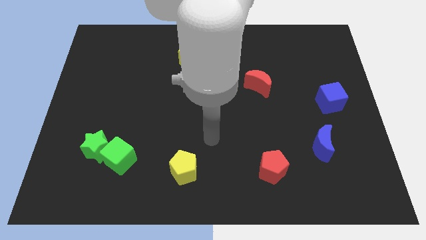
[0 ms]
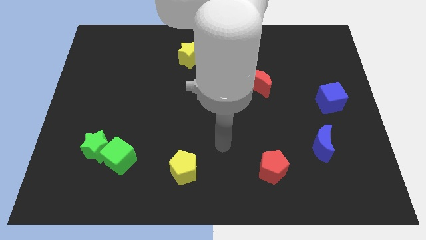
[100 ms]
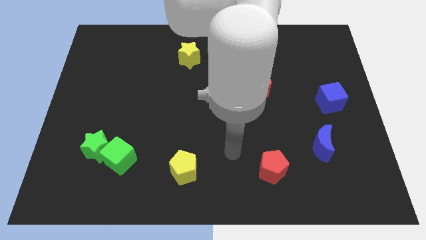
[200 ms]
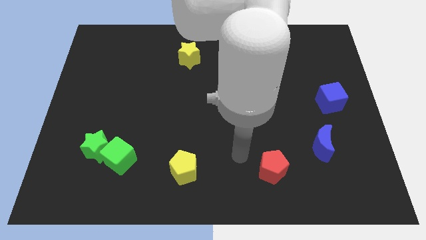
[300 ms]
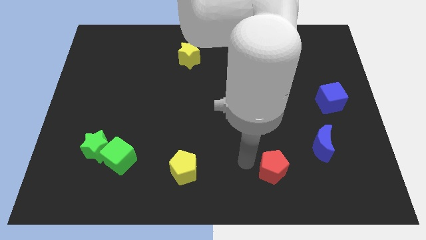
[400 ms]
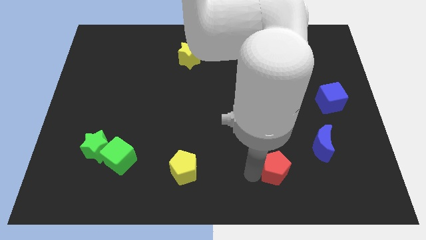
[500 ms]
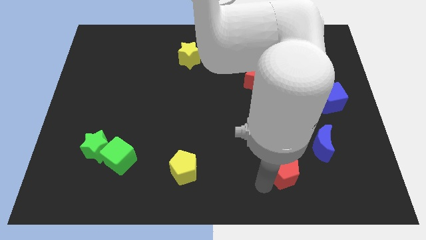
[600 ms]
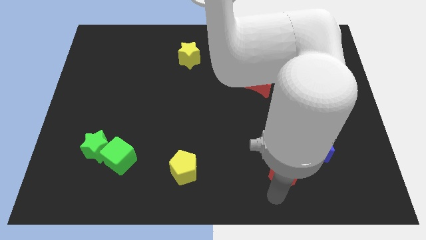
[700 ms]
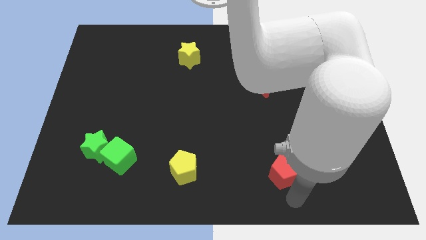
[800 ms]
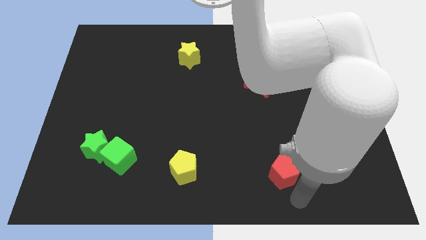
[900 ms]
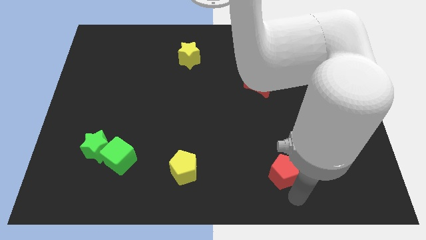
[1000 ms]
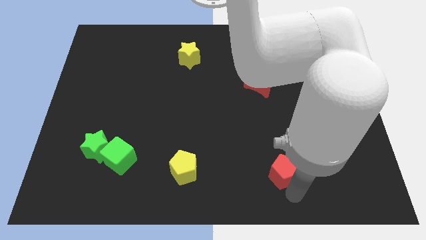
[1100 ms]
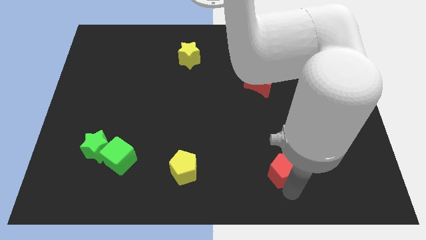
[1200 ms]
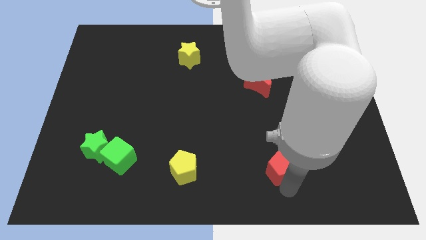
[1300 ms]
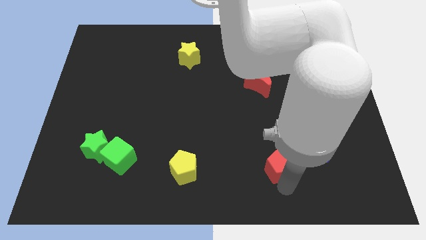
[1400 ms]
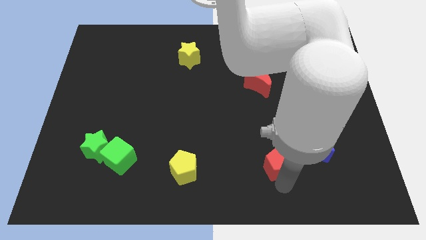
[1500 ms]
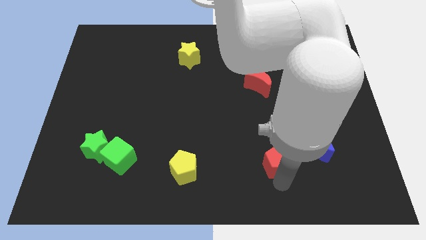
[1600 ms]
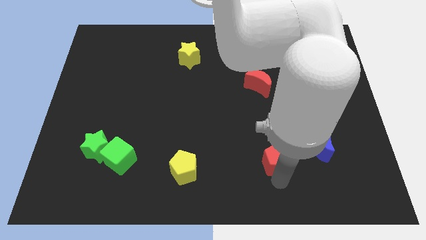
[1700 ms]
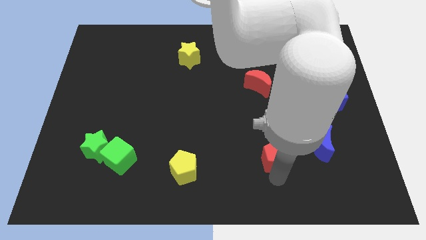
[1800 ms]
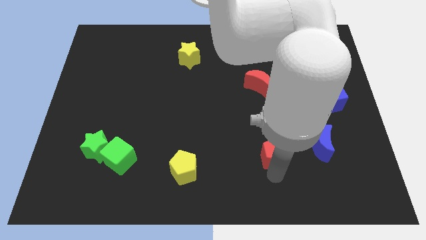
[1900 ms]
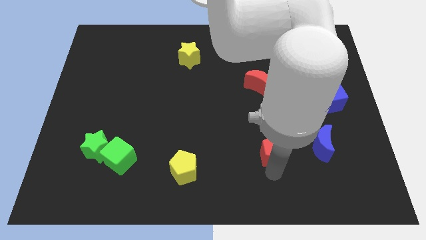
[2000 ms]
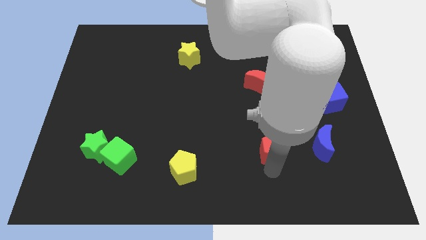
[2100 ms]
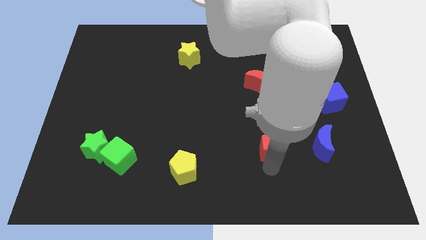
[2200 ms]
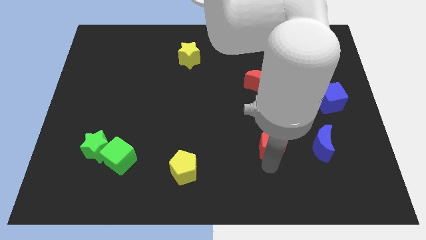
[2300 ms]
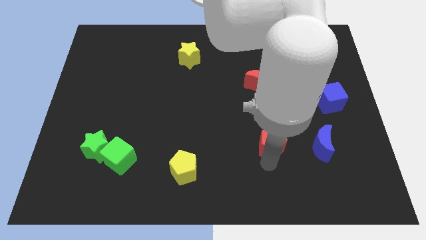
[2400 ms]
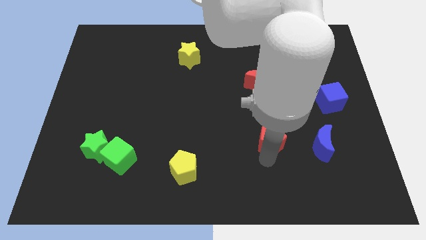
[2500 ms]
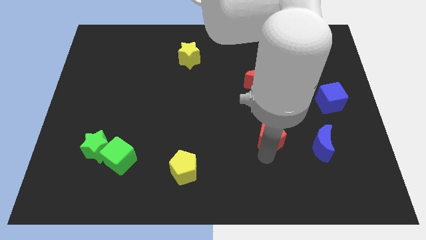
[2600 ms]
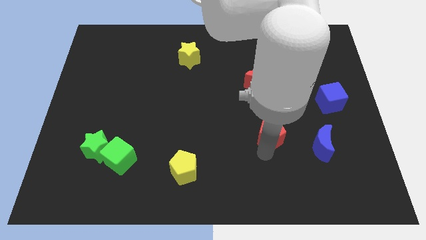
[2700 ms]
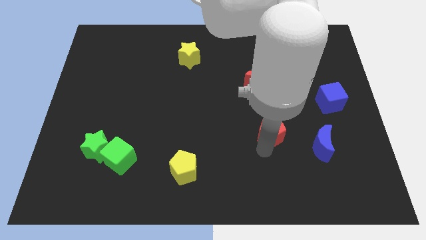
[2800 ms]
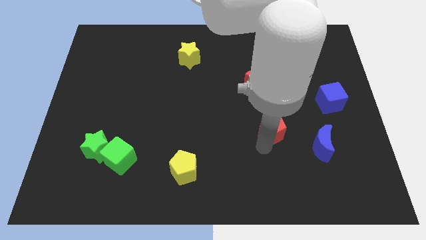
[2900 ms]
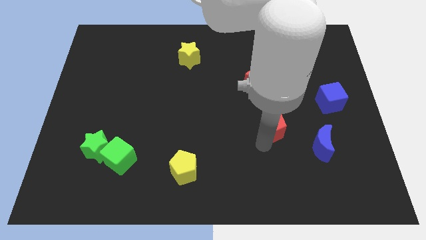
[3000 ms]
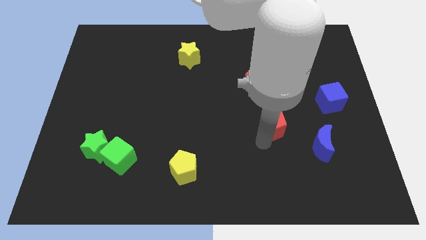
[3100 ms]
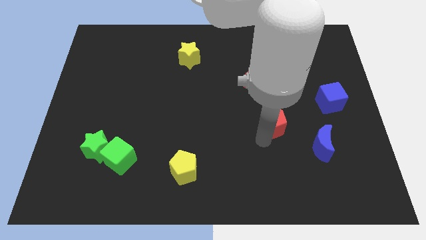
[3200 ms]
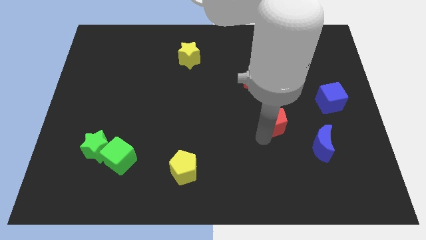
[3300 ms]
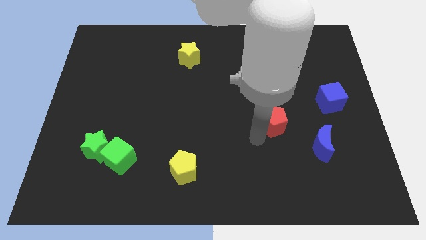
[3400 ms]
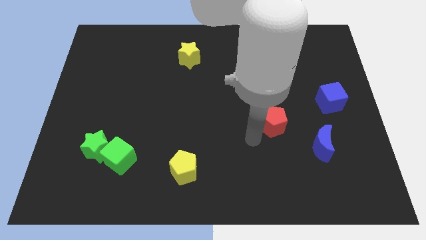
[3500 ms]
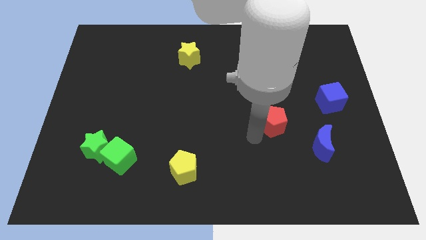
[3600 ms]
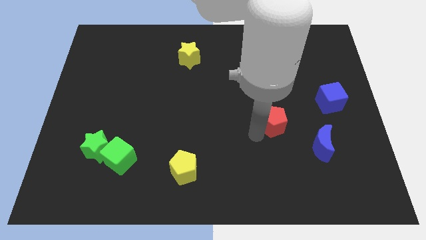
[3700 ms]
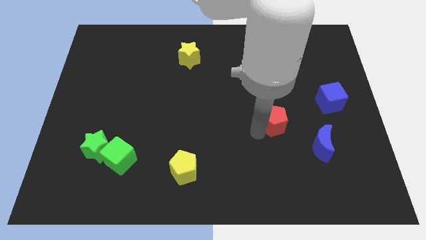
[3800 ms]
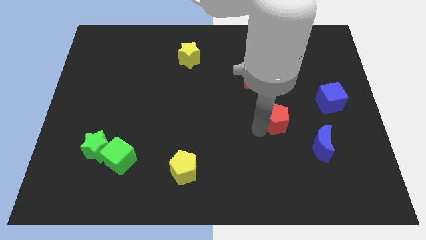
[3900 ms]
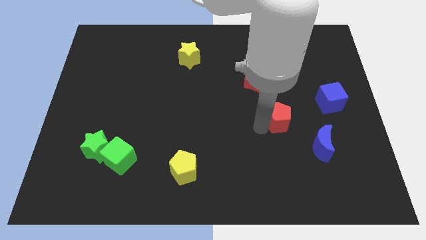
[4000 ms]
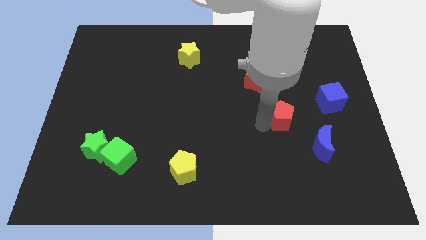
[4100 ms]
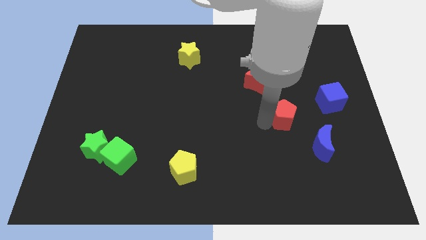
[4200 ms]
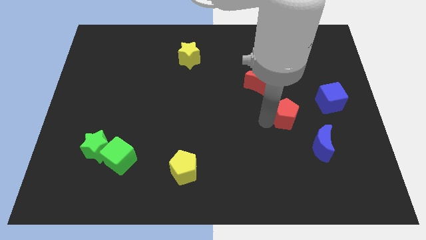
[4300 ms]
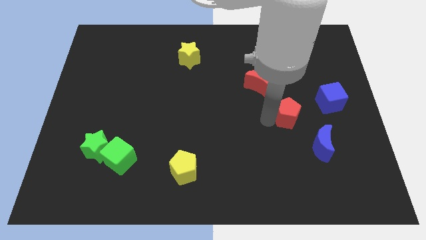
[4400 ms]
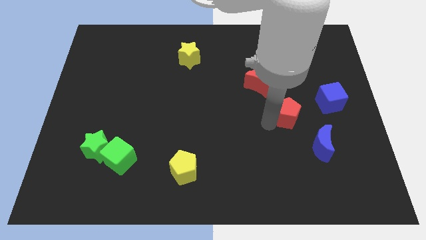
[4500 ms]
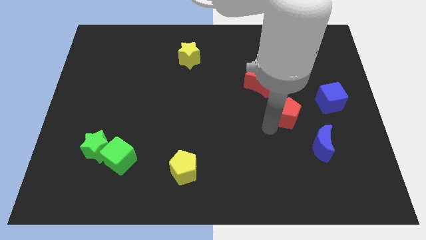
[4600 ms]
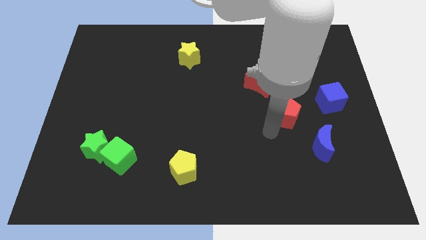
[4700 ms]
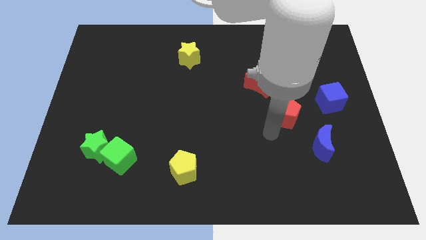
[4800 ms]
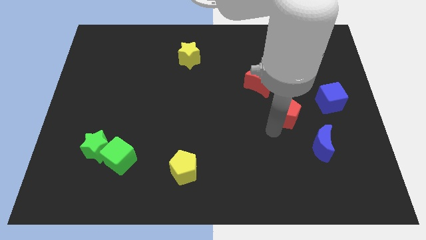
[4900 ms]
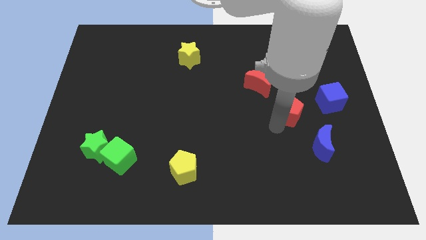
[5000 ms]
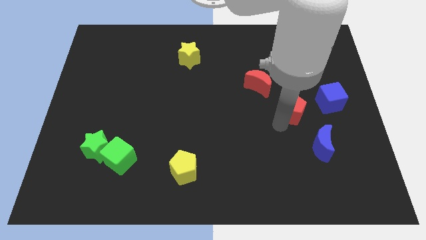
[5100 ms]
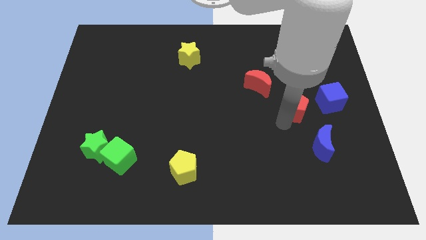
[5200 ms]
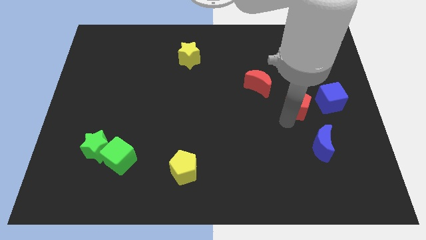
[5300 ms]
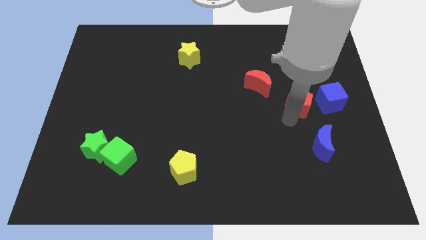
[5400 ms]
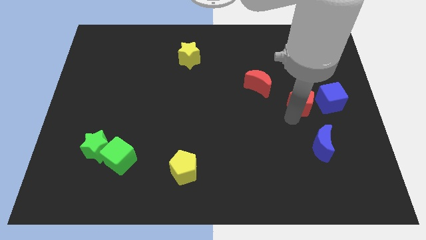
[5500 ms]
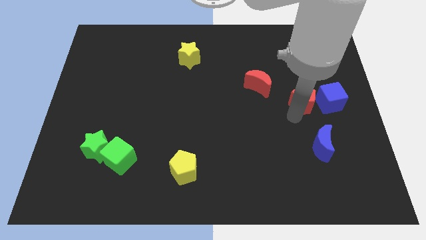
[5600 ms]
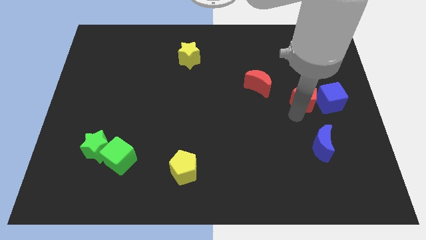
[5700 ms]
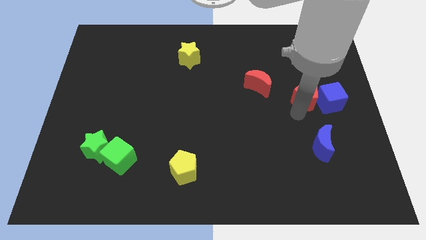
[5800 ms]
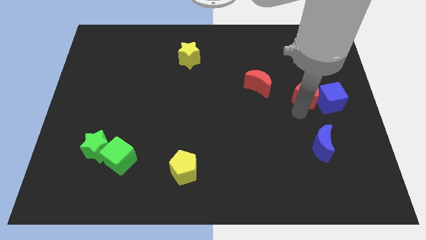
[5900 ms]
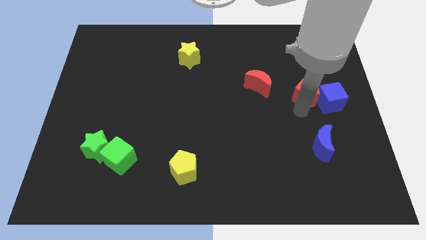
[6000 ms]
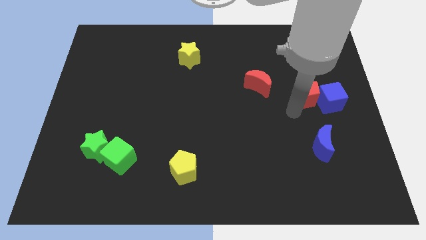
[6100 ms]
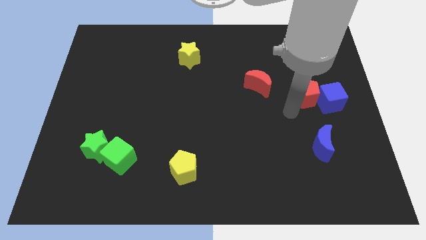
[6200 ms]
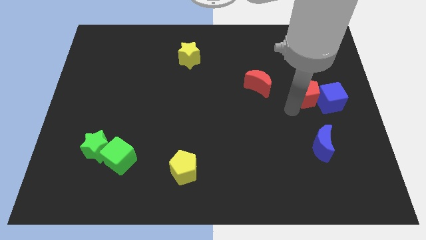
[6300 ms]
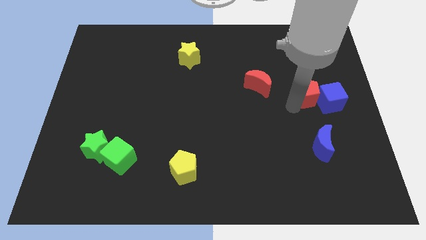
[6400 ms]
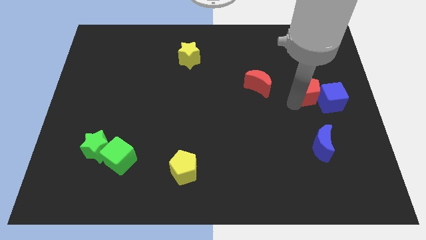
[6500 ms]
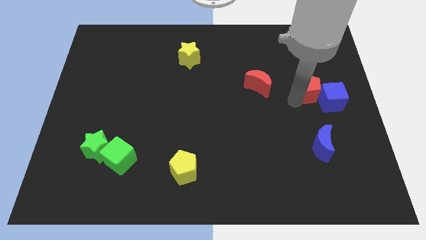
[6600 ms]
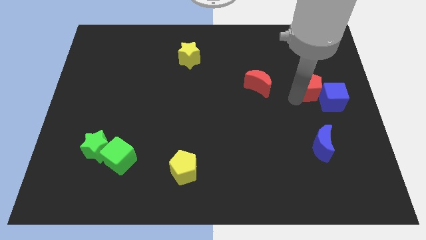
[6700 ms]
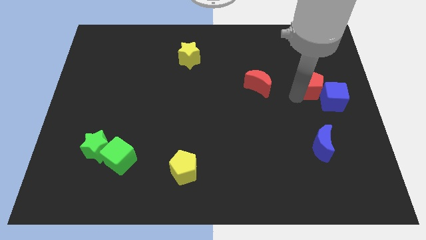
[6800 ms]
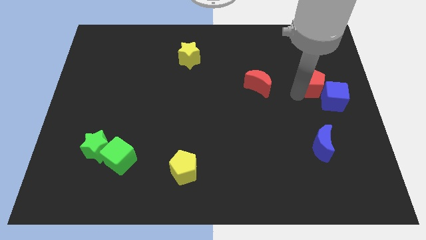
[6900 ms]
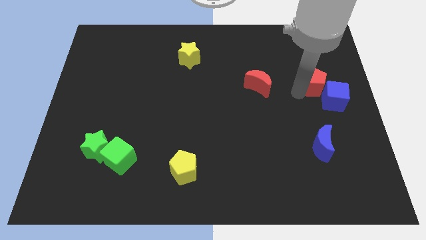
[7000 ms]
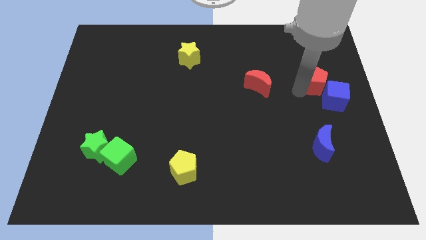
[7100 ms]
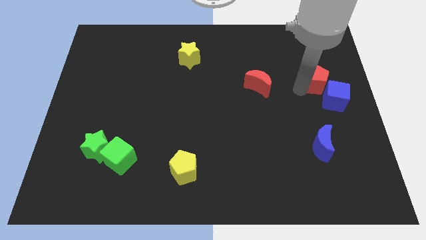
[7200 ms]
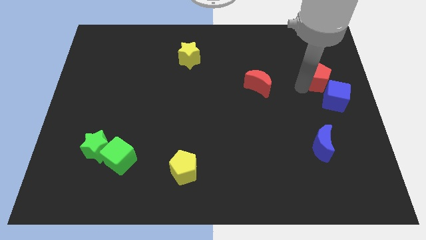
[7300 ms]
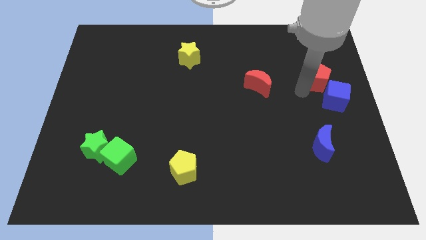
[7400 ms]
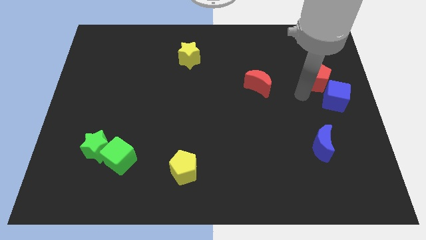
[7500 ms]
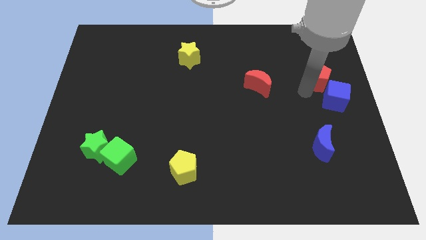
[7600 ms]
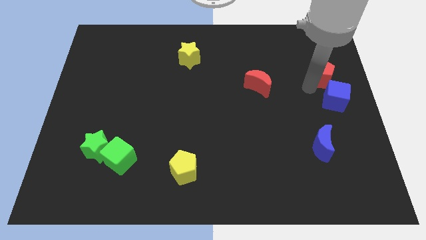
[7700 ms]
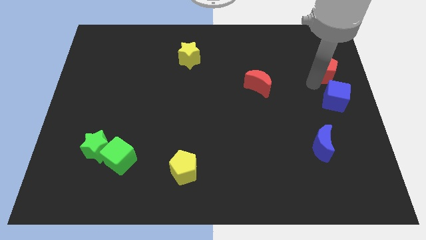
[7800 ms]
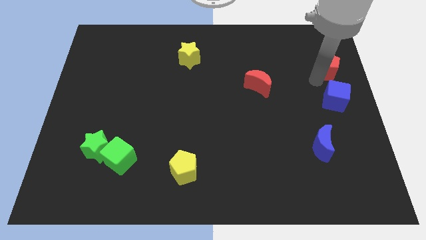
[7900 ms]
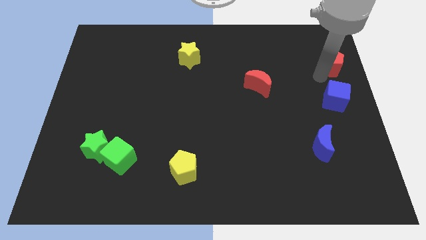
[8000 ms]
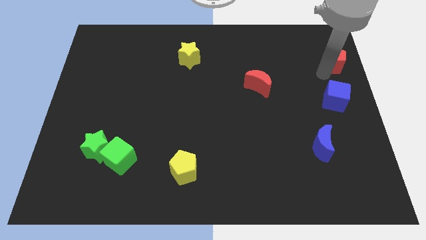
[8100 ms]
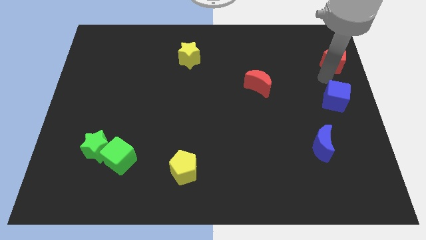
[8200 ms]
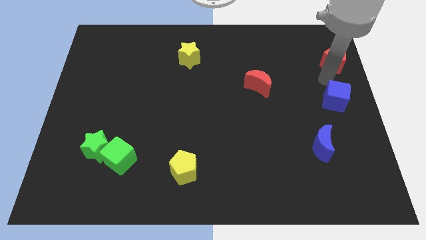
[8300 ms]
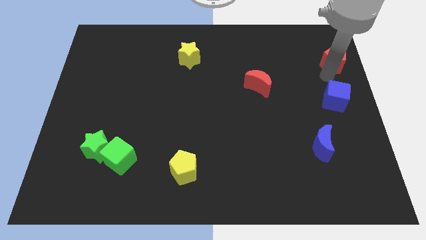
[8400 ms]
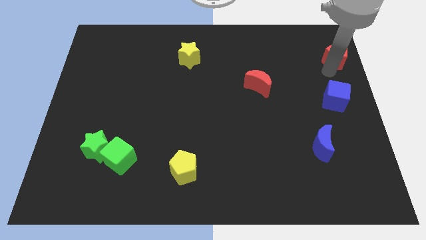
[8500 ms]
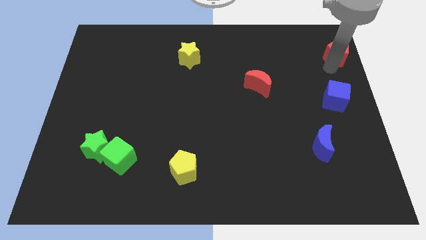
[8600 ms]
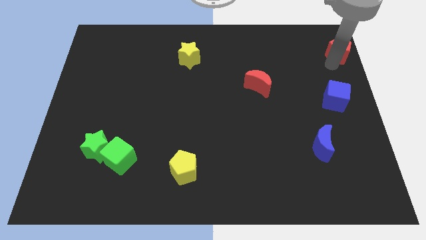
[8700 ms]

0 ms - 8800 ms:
move the red pentagon to the top right corner
